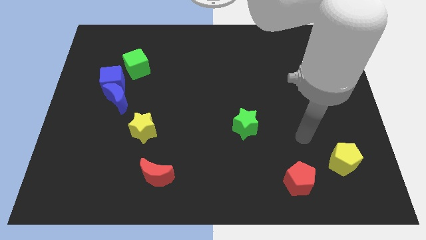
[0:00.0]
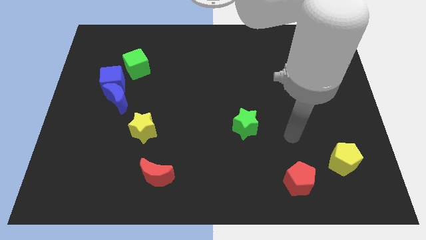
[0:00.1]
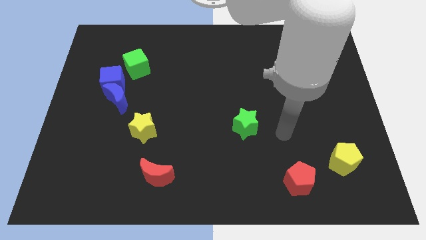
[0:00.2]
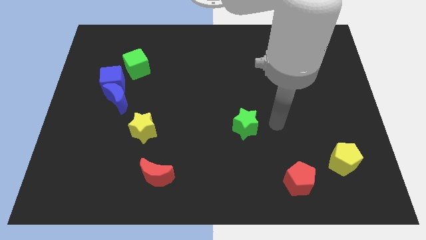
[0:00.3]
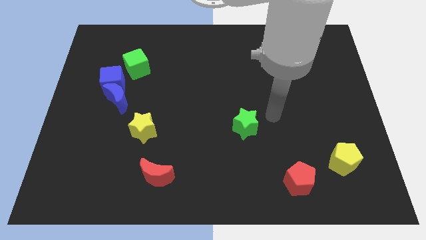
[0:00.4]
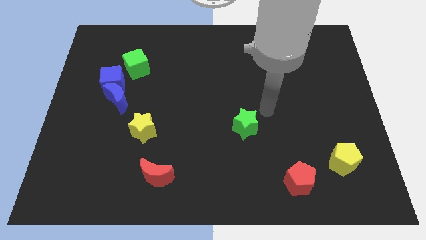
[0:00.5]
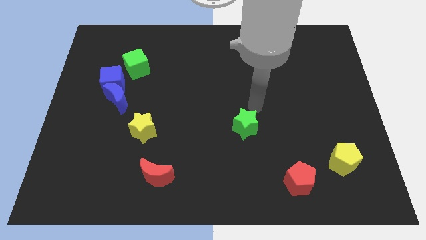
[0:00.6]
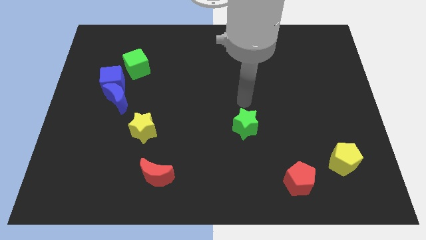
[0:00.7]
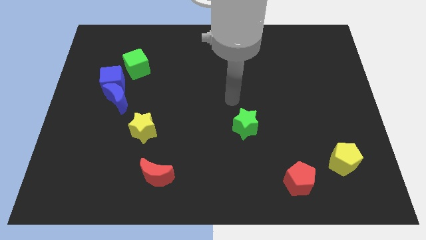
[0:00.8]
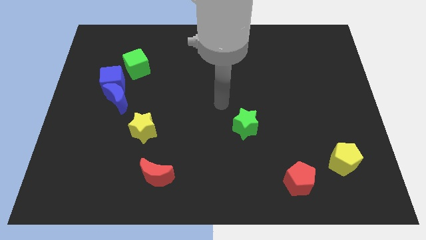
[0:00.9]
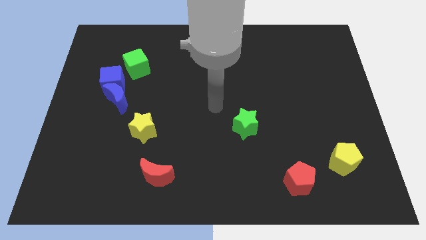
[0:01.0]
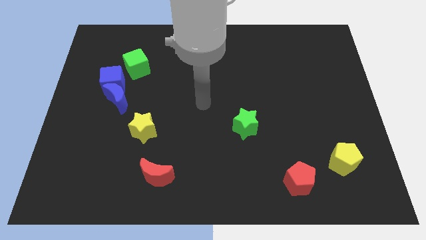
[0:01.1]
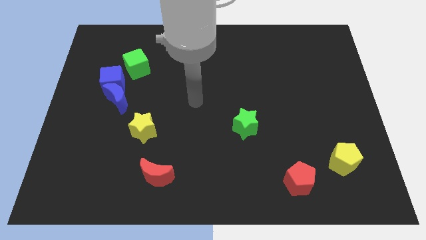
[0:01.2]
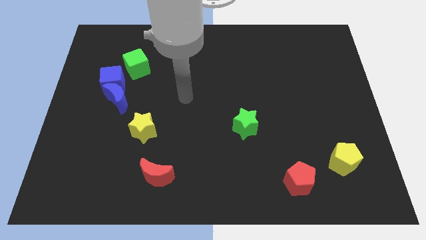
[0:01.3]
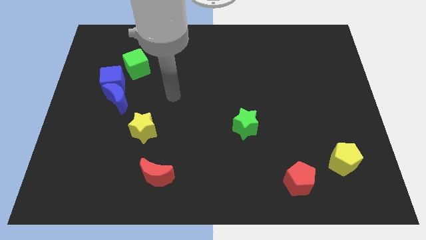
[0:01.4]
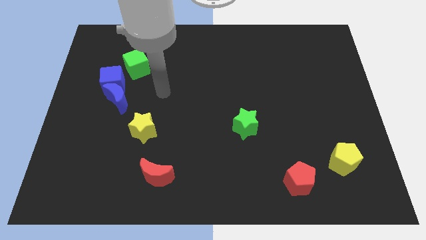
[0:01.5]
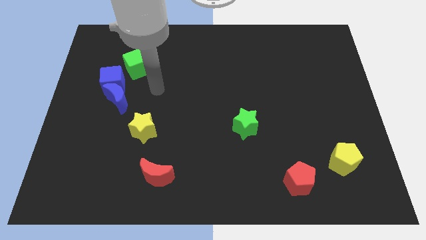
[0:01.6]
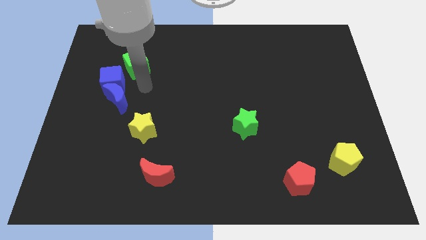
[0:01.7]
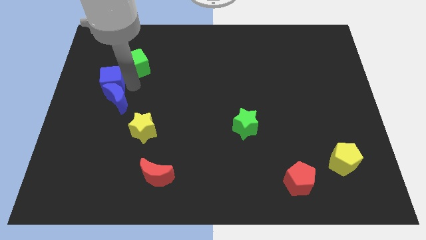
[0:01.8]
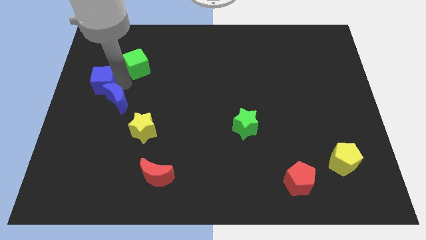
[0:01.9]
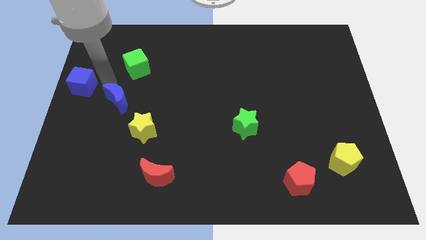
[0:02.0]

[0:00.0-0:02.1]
move the blue moon away from the blue cube

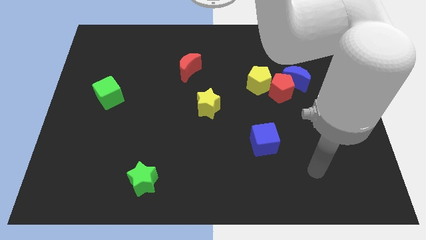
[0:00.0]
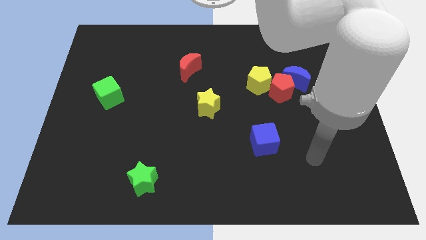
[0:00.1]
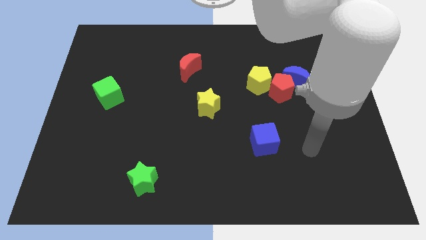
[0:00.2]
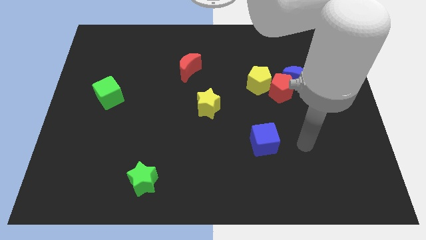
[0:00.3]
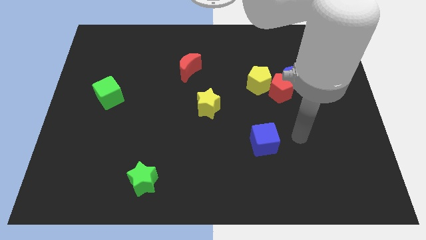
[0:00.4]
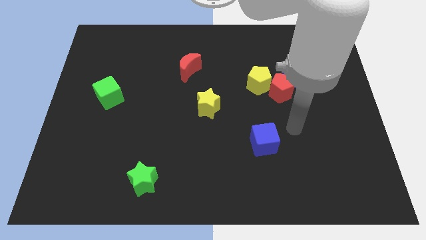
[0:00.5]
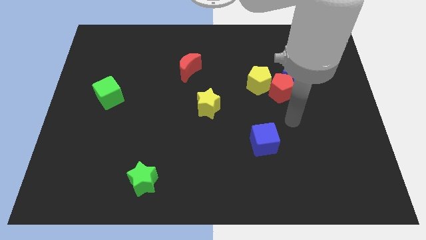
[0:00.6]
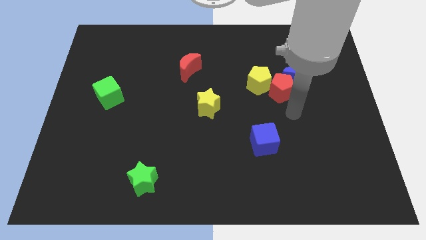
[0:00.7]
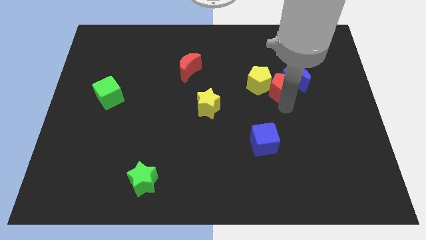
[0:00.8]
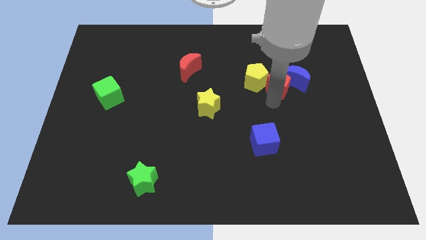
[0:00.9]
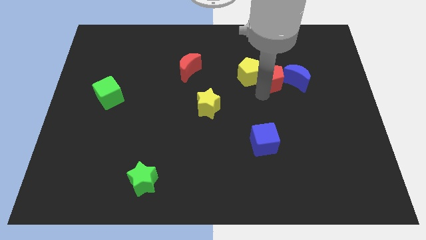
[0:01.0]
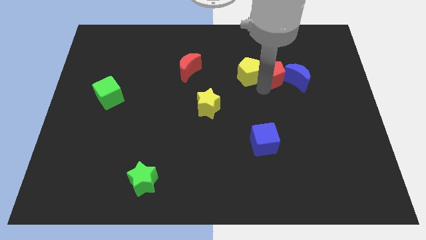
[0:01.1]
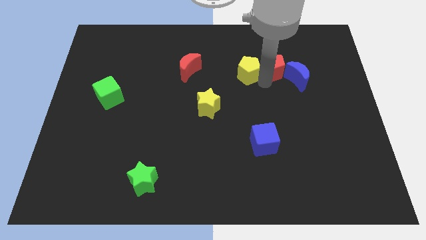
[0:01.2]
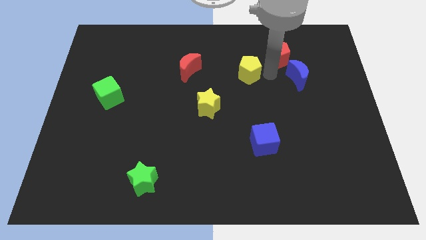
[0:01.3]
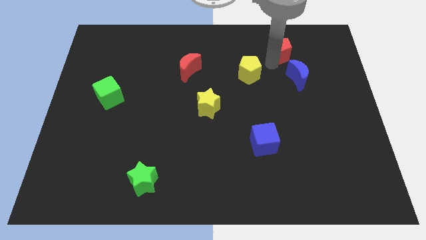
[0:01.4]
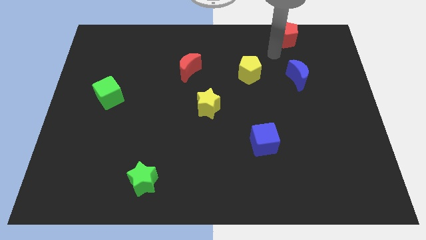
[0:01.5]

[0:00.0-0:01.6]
move the red pentagon away from the blue moon and yellow pentagon

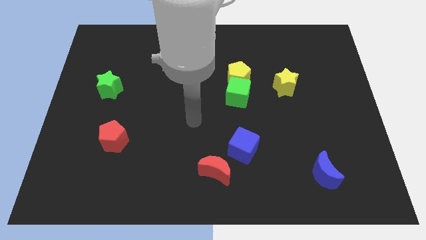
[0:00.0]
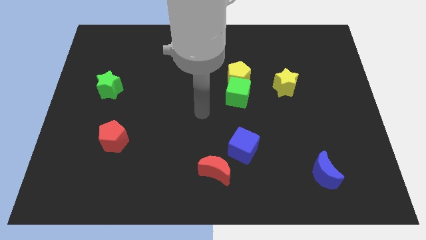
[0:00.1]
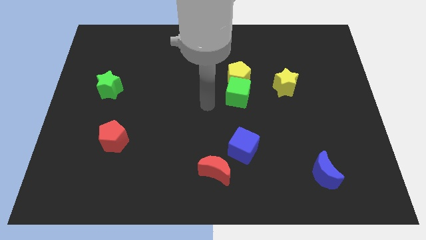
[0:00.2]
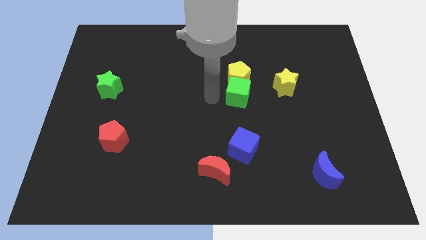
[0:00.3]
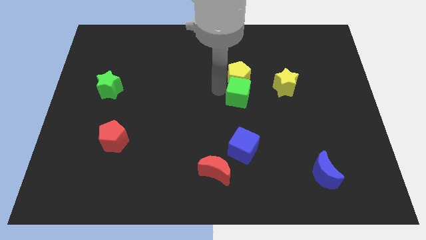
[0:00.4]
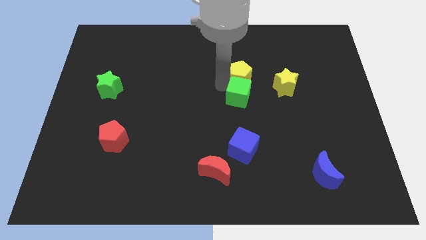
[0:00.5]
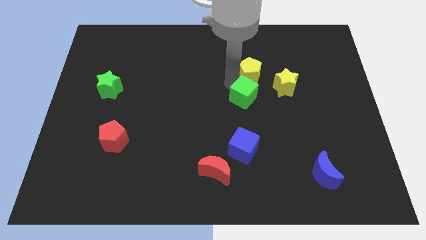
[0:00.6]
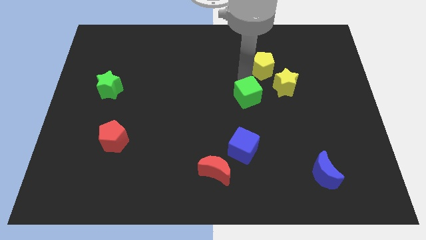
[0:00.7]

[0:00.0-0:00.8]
pull the green cube apart from the yellow pentagon

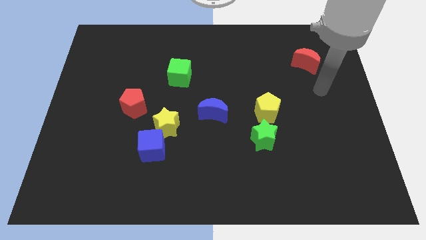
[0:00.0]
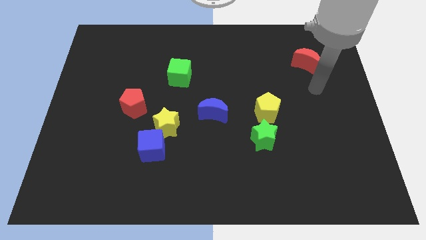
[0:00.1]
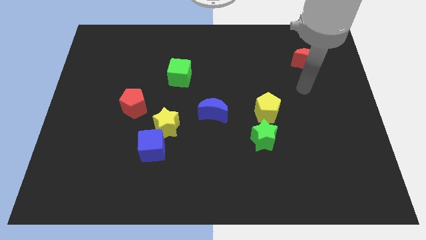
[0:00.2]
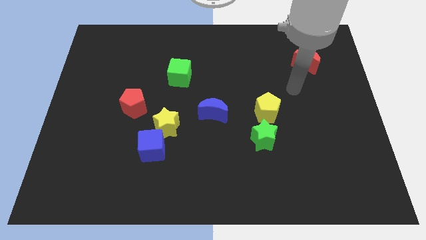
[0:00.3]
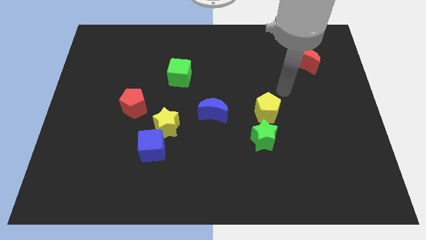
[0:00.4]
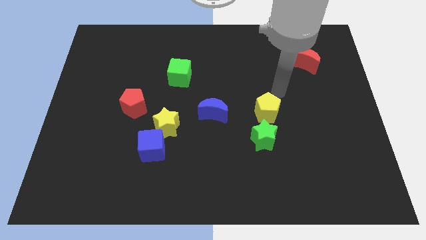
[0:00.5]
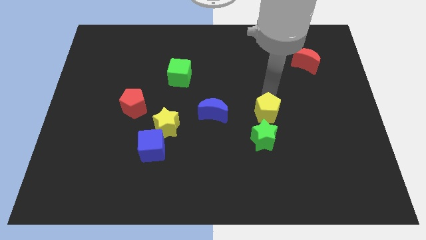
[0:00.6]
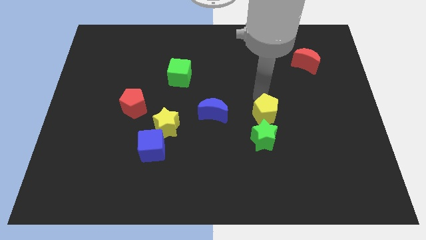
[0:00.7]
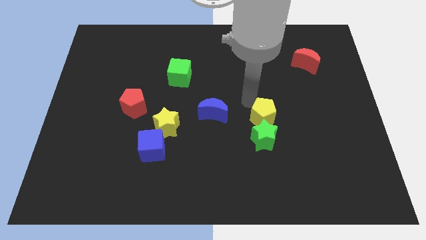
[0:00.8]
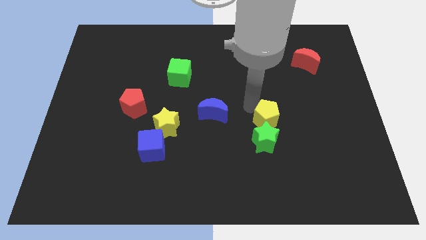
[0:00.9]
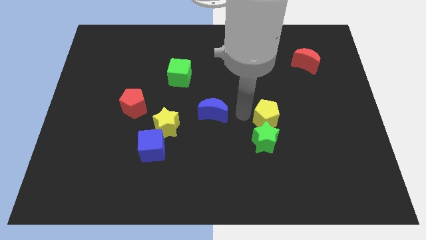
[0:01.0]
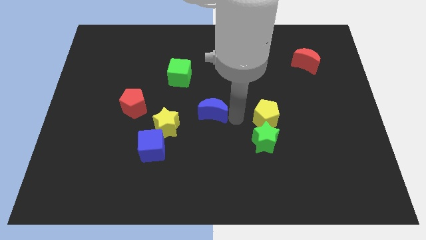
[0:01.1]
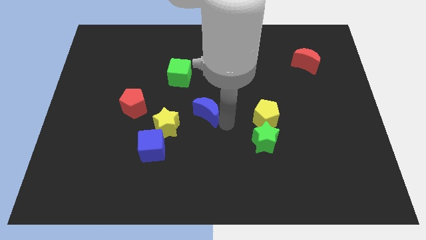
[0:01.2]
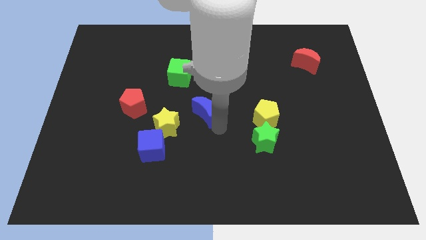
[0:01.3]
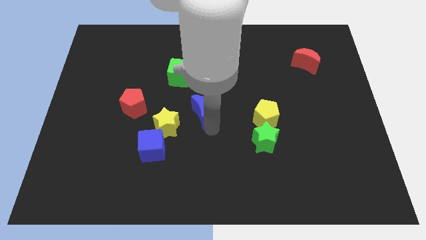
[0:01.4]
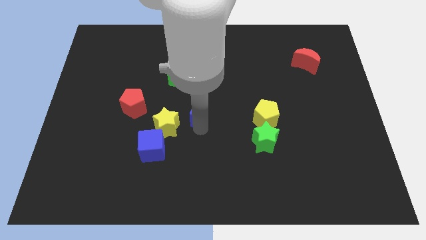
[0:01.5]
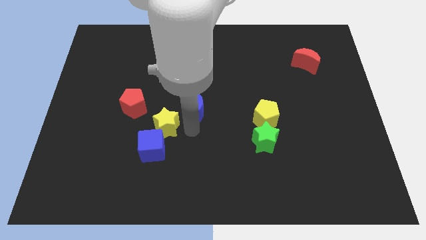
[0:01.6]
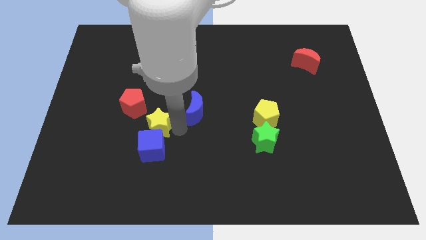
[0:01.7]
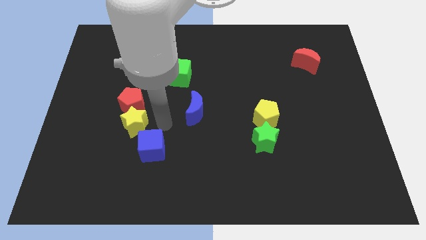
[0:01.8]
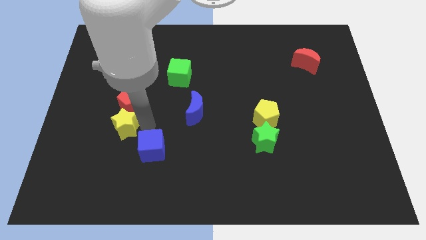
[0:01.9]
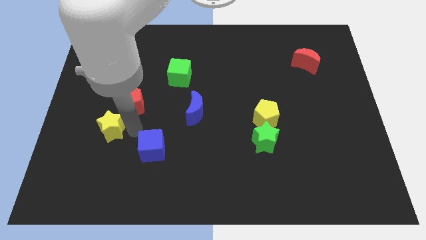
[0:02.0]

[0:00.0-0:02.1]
move the blue cube away from the yellow star

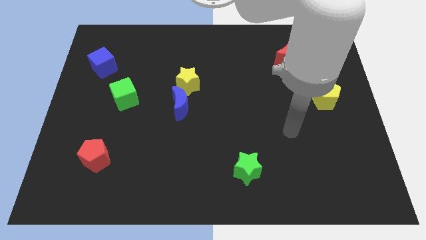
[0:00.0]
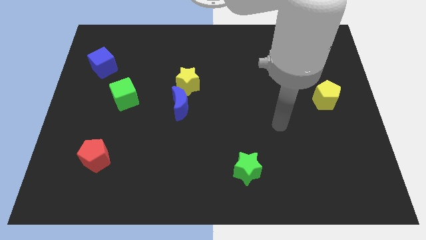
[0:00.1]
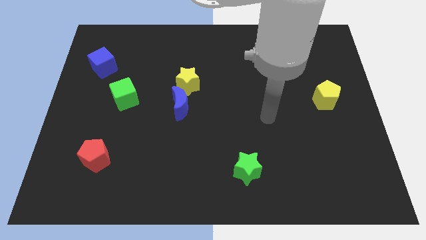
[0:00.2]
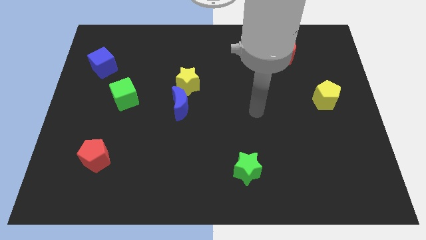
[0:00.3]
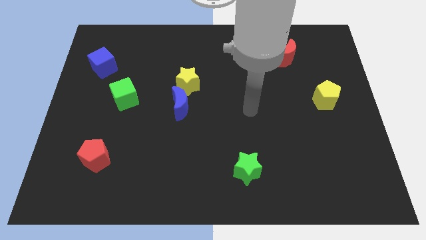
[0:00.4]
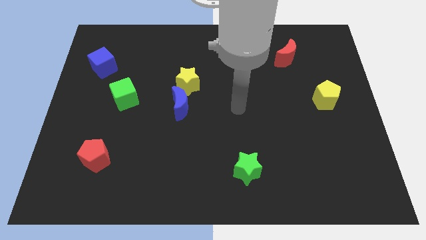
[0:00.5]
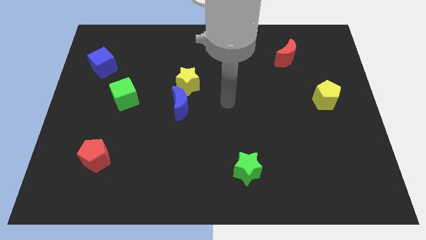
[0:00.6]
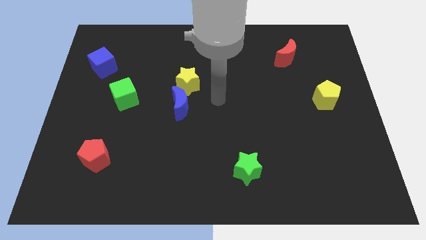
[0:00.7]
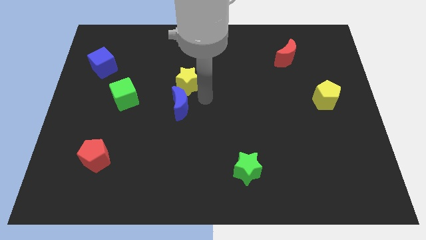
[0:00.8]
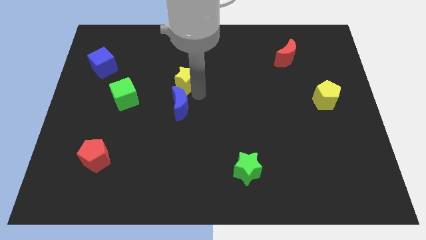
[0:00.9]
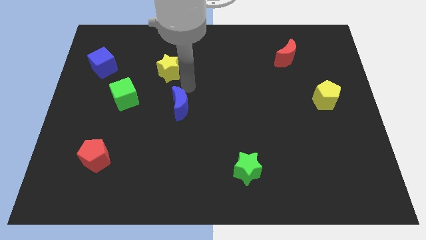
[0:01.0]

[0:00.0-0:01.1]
move the blue moon away from the yellow star

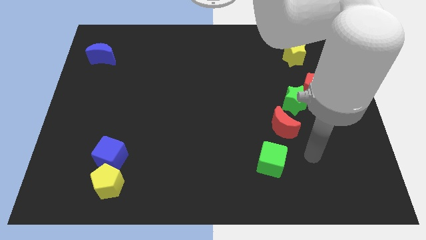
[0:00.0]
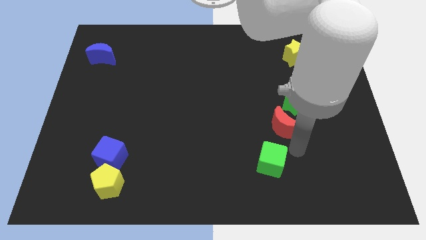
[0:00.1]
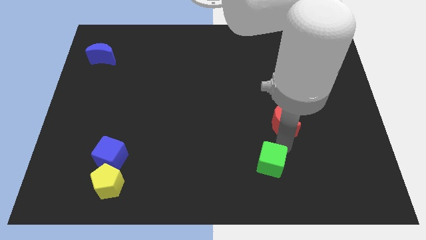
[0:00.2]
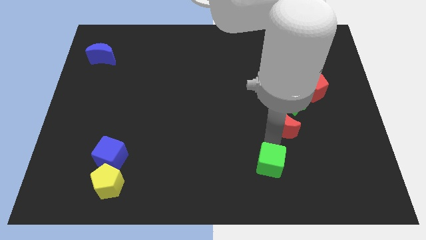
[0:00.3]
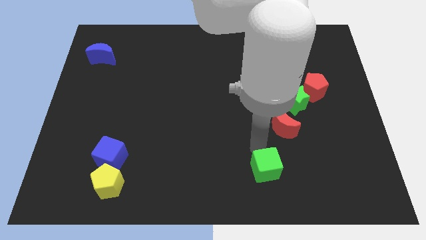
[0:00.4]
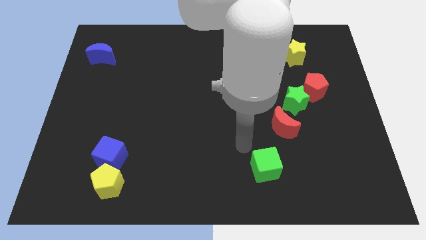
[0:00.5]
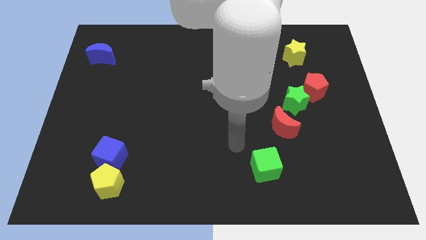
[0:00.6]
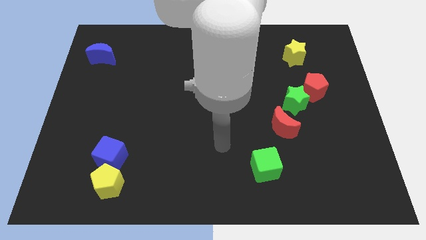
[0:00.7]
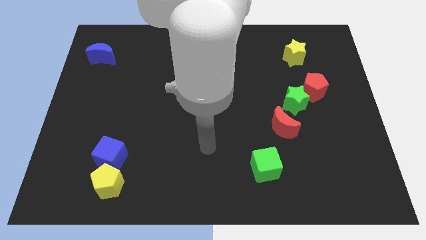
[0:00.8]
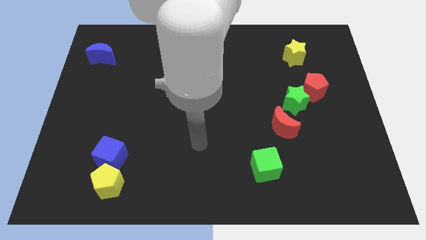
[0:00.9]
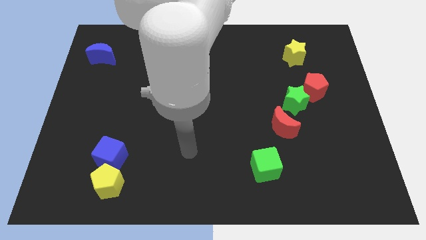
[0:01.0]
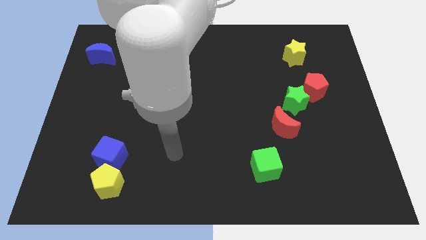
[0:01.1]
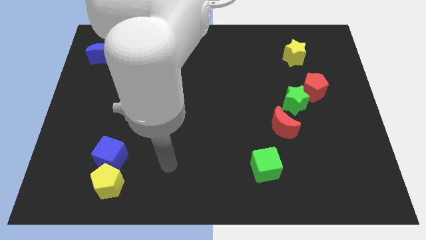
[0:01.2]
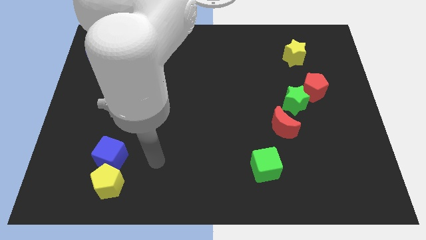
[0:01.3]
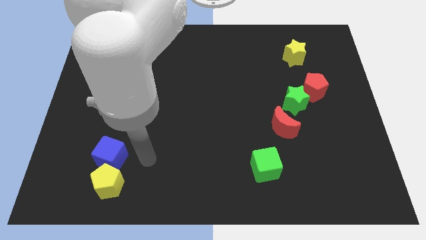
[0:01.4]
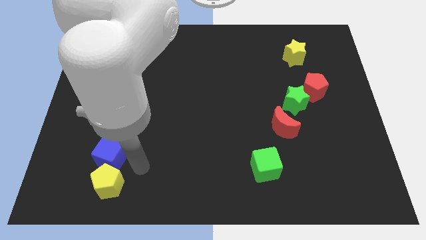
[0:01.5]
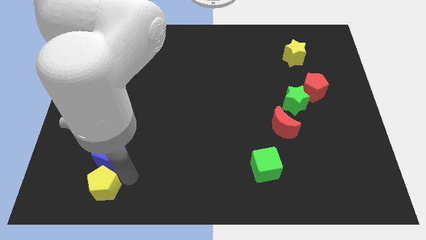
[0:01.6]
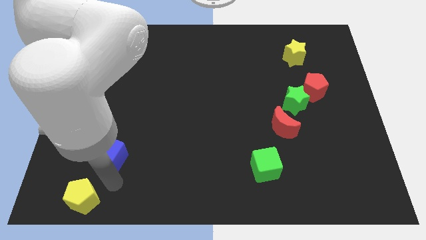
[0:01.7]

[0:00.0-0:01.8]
pull the blue cube apart from the yellow pentagon
